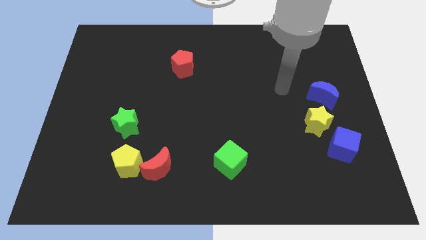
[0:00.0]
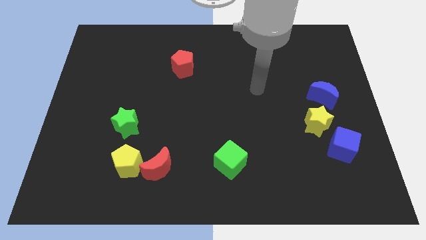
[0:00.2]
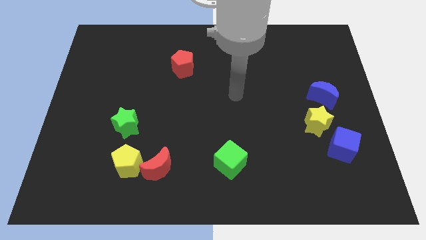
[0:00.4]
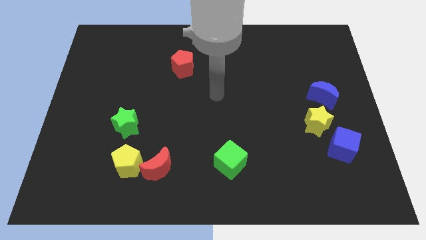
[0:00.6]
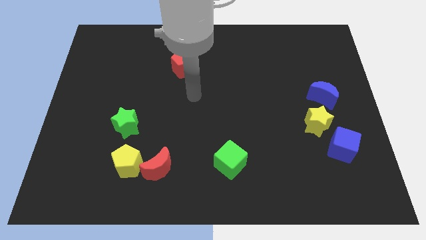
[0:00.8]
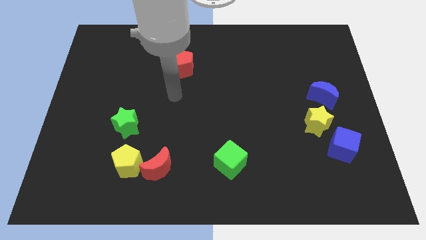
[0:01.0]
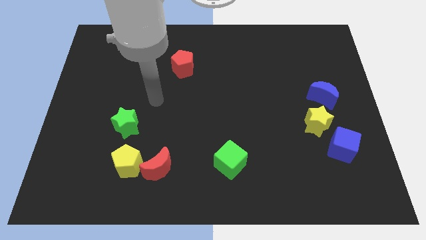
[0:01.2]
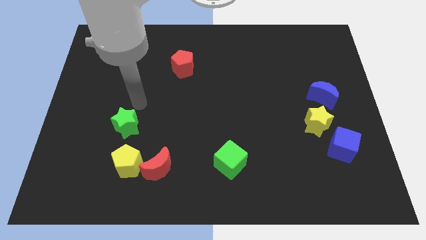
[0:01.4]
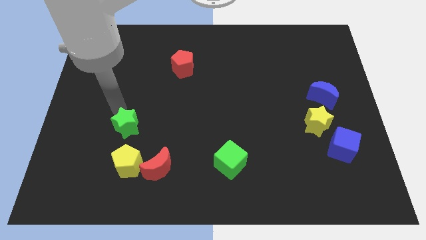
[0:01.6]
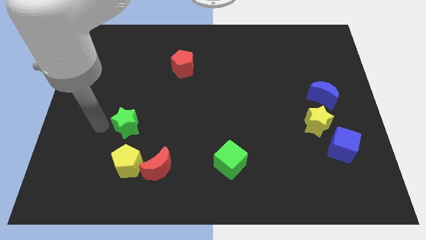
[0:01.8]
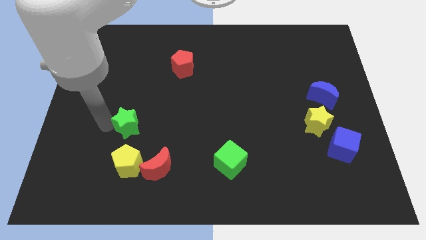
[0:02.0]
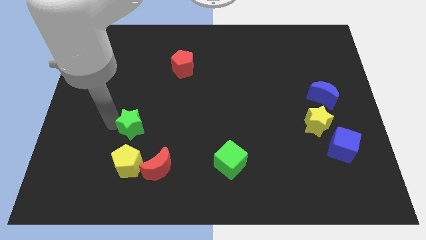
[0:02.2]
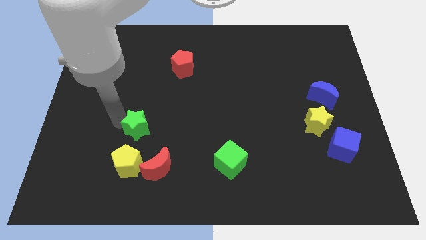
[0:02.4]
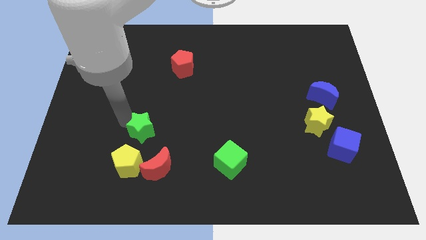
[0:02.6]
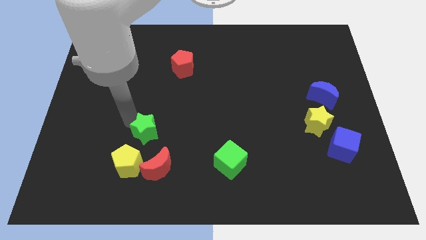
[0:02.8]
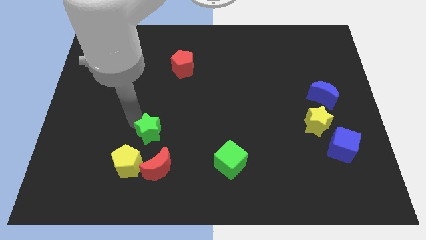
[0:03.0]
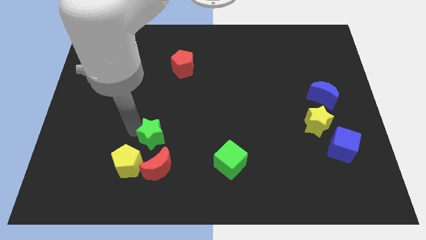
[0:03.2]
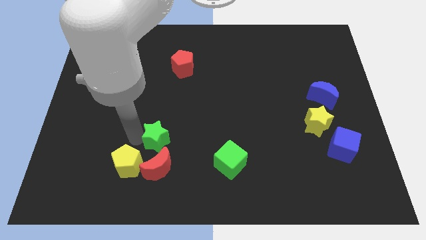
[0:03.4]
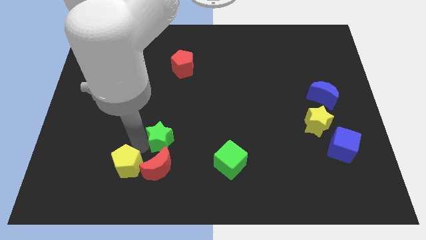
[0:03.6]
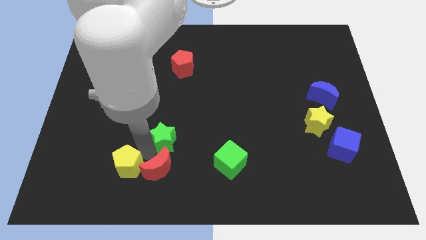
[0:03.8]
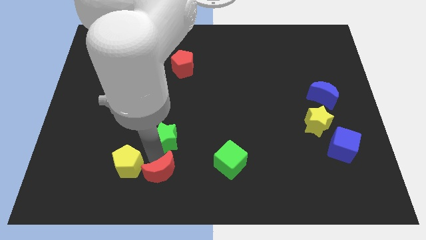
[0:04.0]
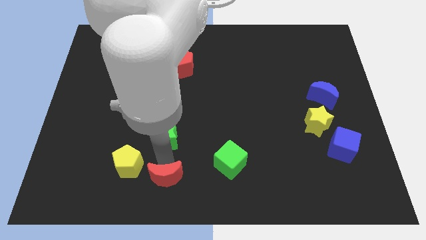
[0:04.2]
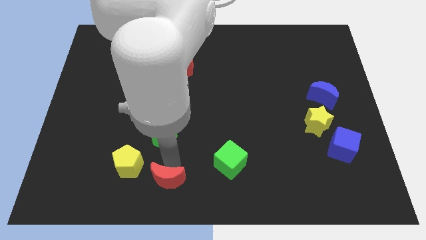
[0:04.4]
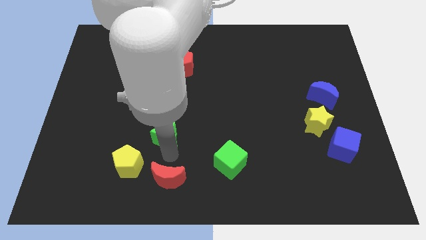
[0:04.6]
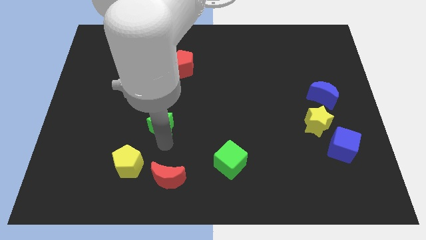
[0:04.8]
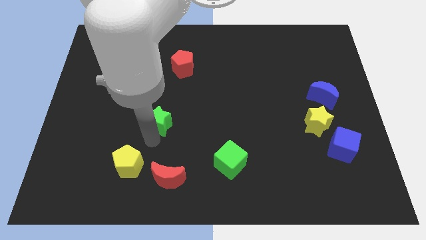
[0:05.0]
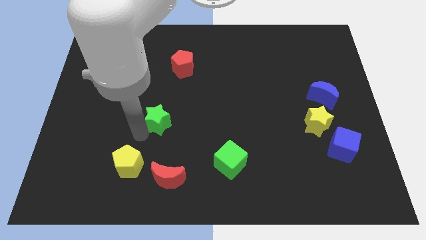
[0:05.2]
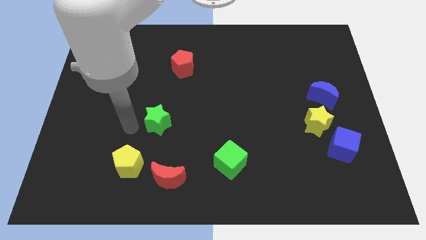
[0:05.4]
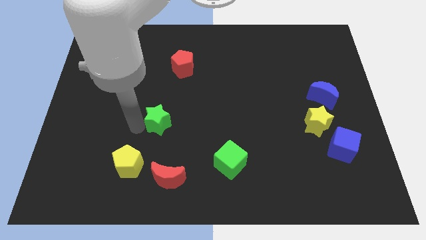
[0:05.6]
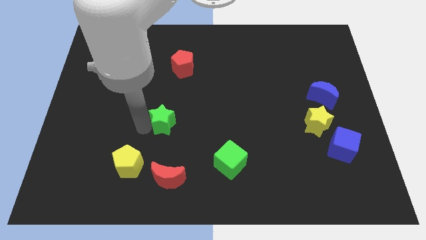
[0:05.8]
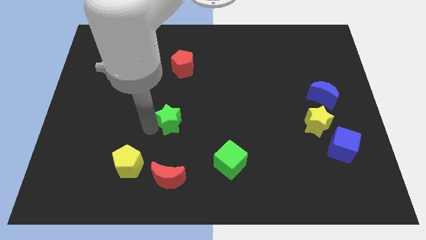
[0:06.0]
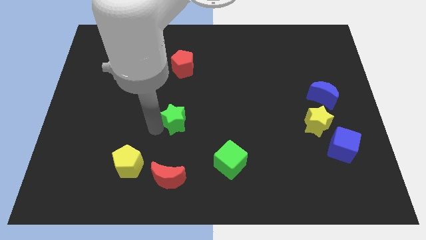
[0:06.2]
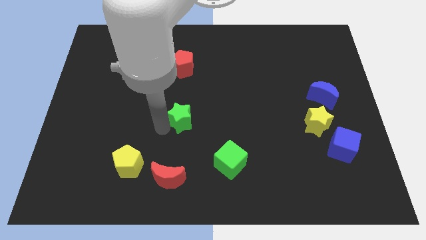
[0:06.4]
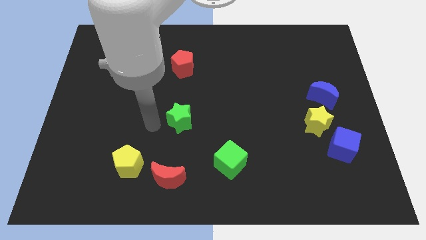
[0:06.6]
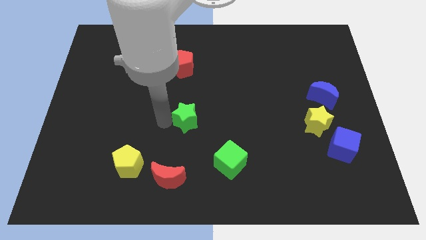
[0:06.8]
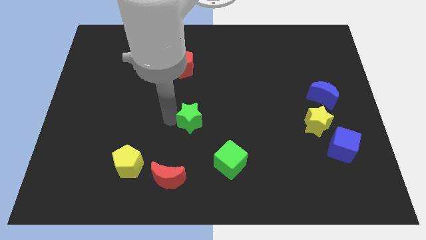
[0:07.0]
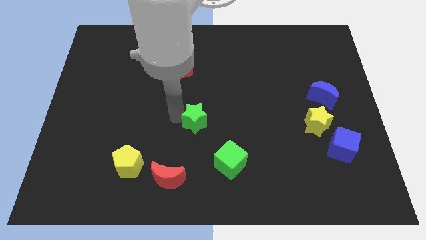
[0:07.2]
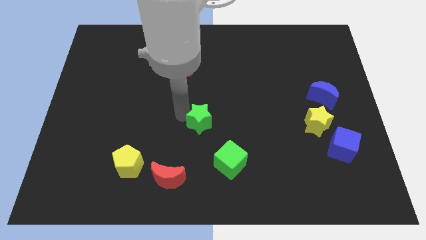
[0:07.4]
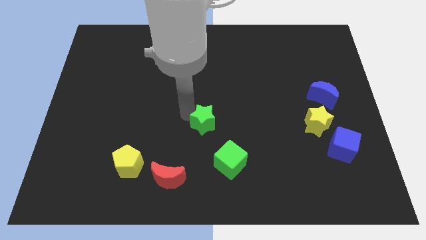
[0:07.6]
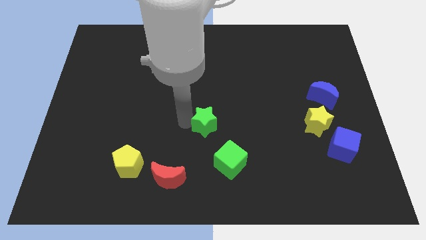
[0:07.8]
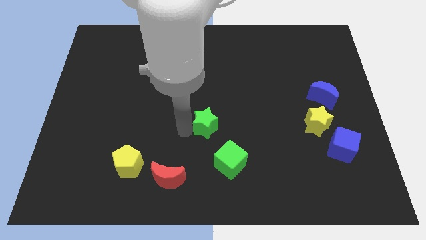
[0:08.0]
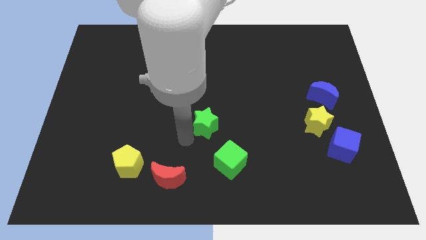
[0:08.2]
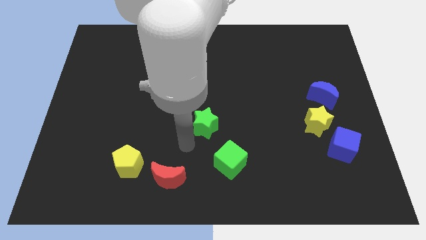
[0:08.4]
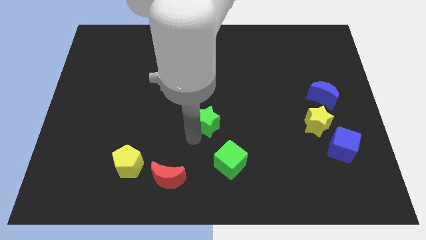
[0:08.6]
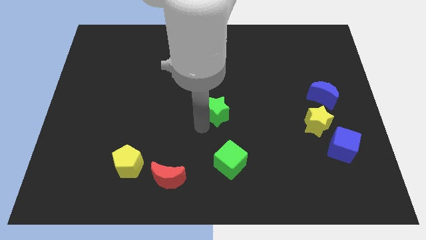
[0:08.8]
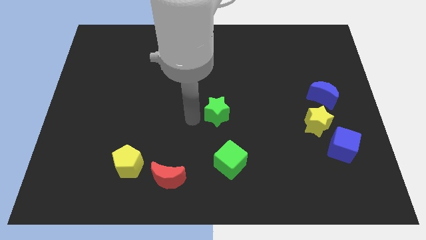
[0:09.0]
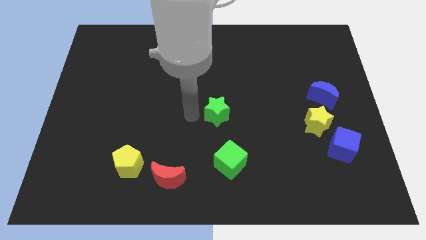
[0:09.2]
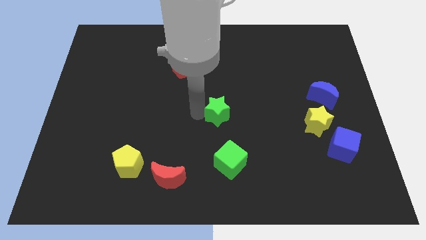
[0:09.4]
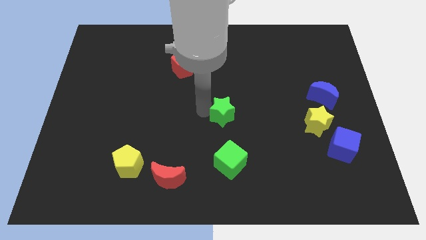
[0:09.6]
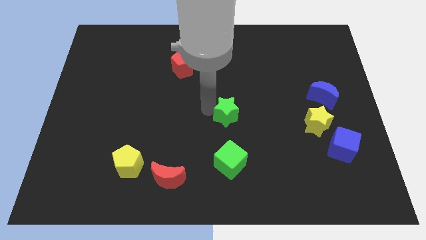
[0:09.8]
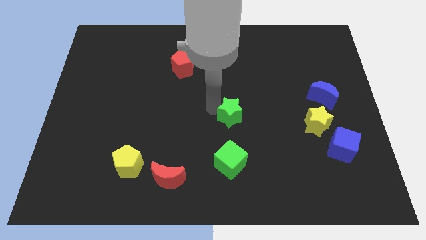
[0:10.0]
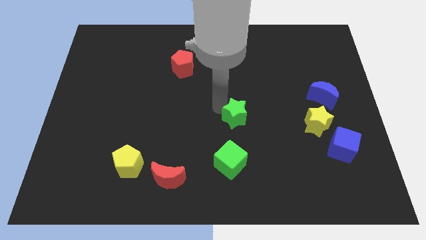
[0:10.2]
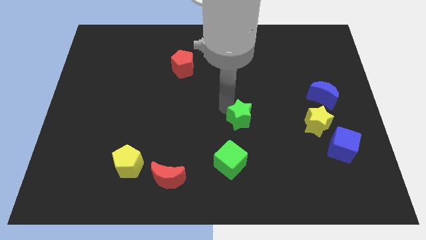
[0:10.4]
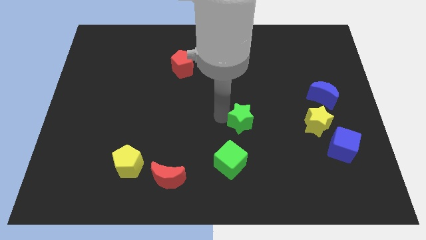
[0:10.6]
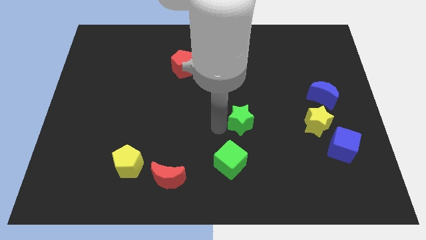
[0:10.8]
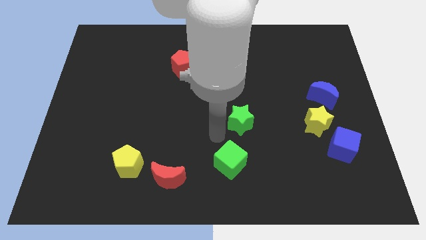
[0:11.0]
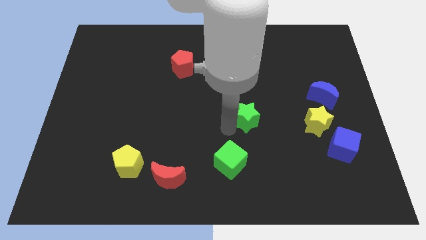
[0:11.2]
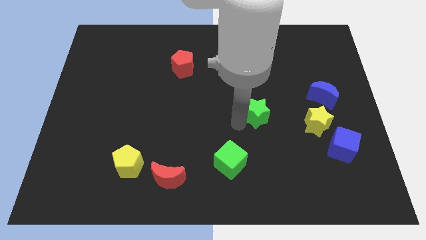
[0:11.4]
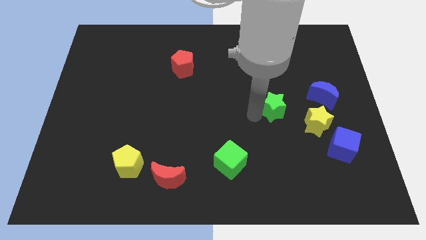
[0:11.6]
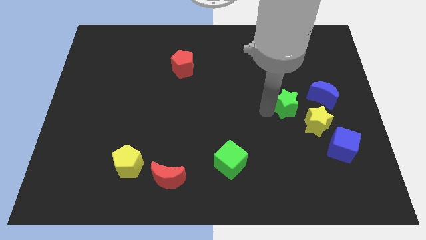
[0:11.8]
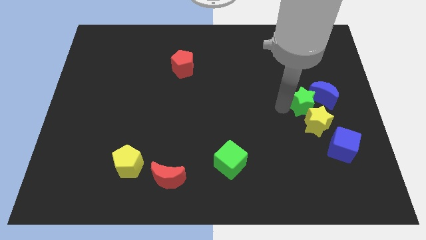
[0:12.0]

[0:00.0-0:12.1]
put the green star next to the blue moon

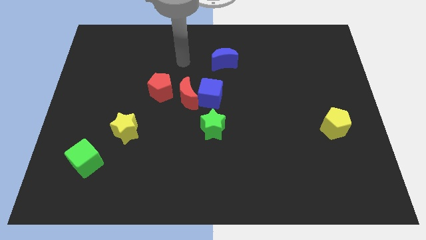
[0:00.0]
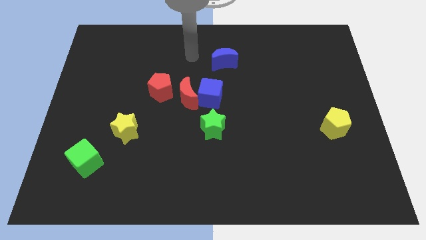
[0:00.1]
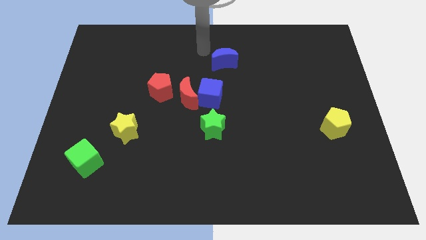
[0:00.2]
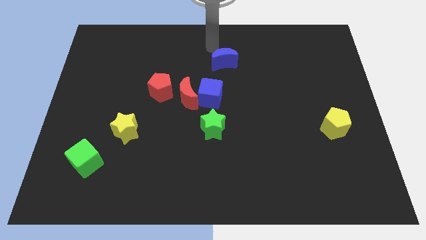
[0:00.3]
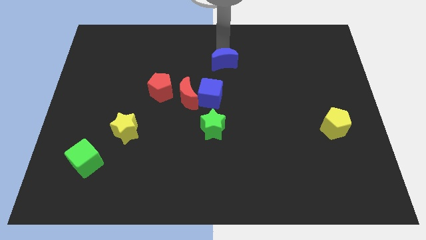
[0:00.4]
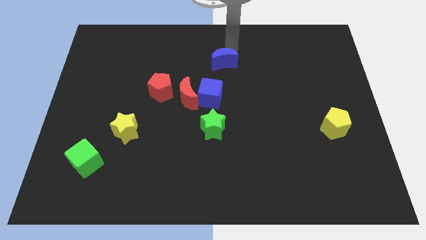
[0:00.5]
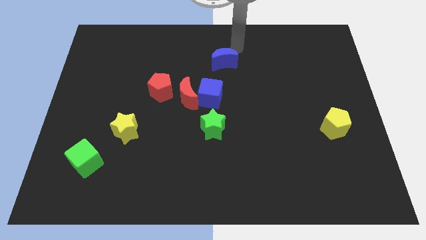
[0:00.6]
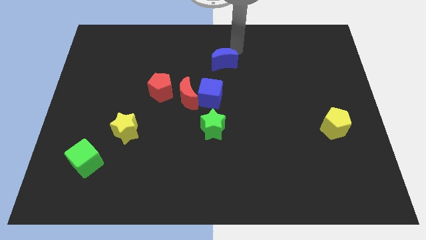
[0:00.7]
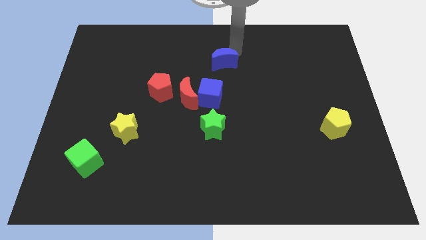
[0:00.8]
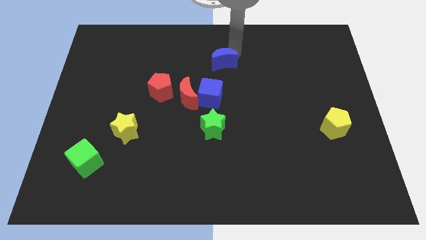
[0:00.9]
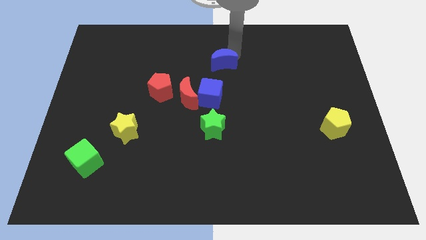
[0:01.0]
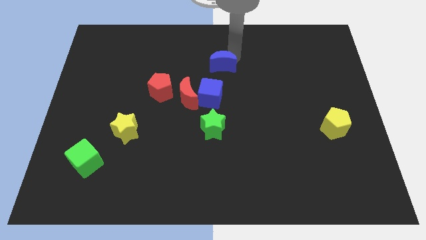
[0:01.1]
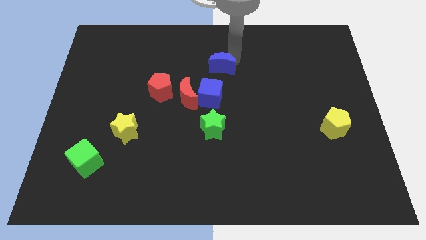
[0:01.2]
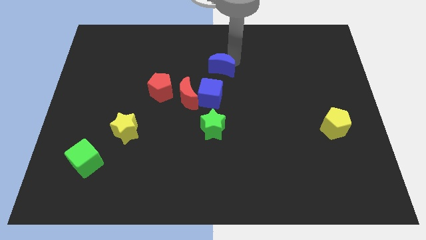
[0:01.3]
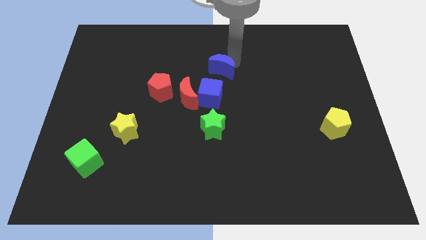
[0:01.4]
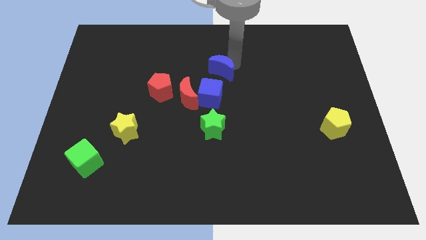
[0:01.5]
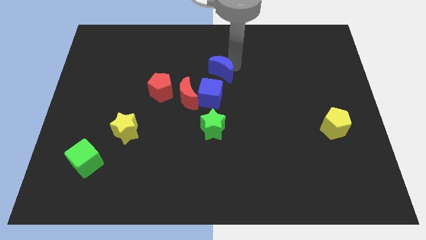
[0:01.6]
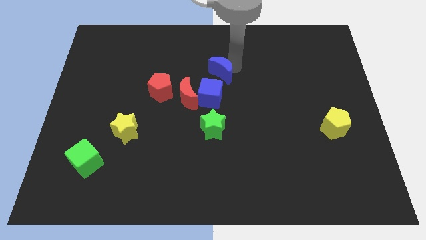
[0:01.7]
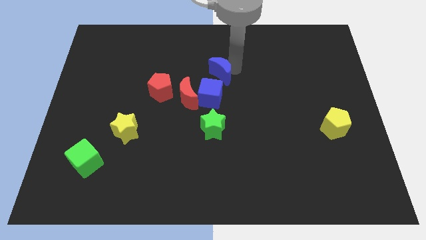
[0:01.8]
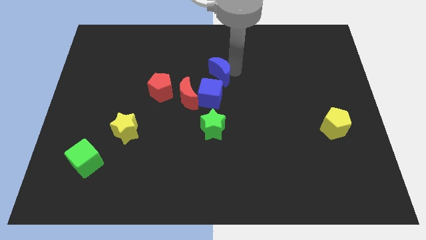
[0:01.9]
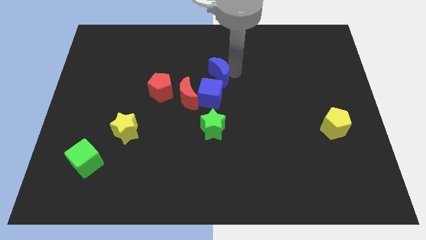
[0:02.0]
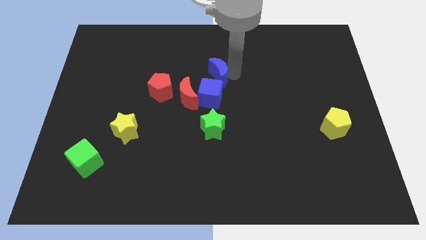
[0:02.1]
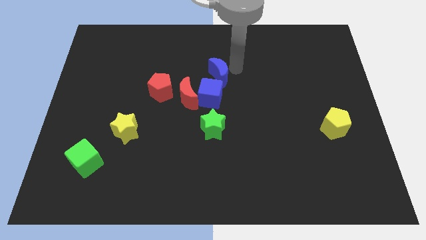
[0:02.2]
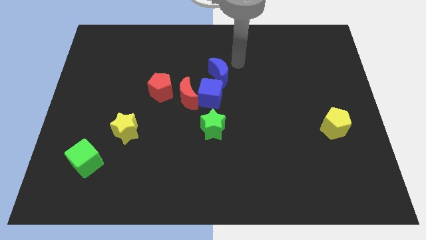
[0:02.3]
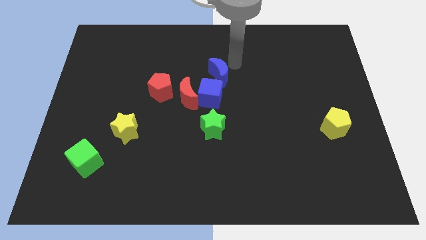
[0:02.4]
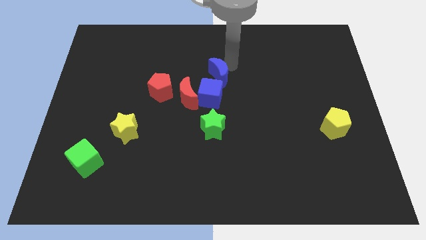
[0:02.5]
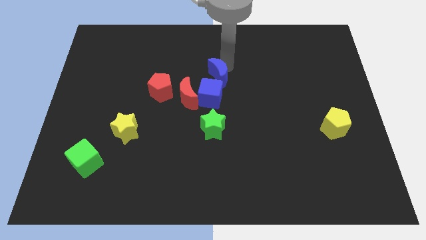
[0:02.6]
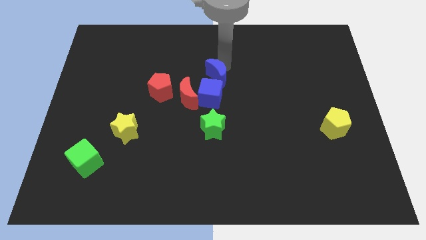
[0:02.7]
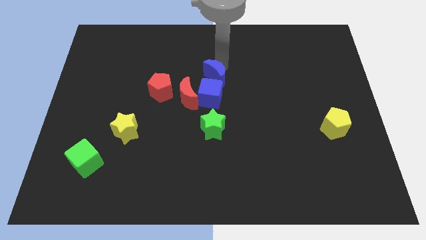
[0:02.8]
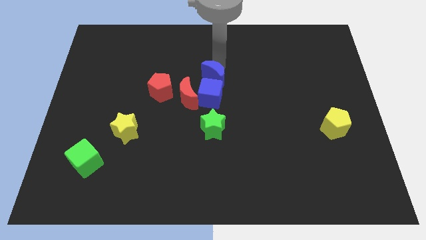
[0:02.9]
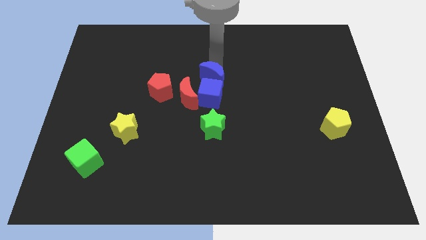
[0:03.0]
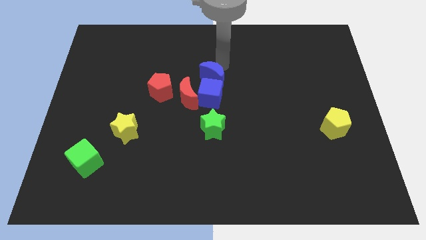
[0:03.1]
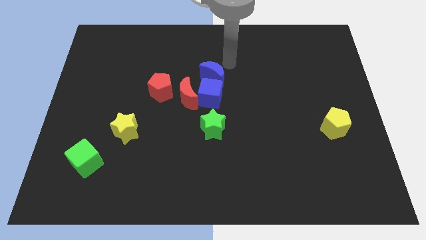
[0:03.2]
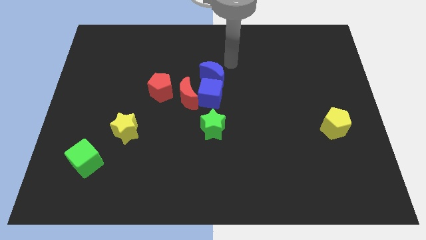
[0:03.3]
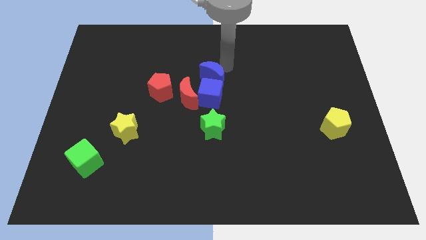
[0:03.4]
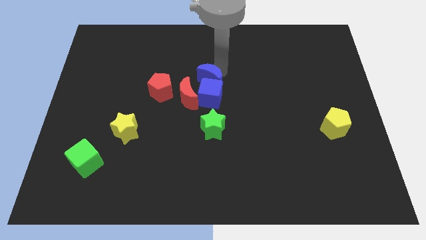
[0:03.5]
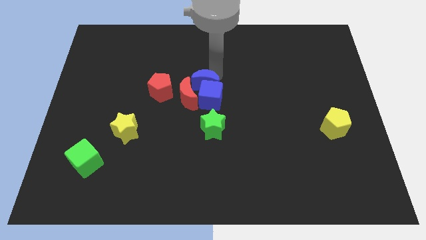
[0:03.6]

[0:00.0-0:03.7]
put the blue moon next to the red moon
